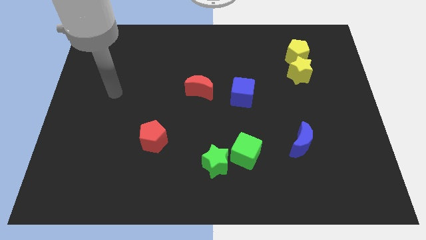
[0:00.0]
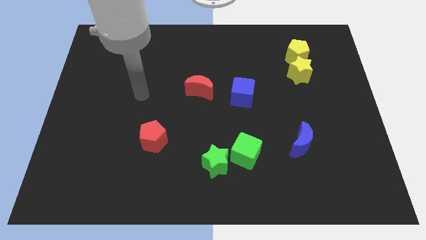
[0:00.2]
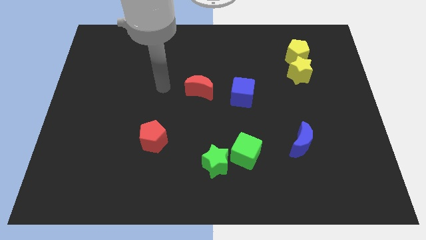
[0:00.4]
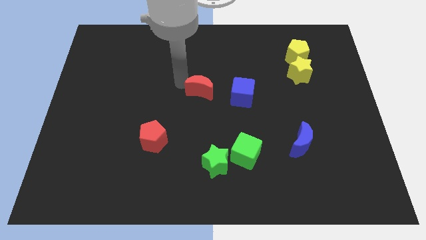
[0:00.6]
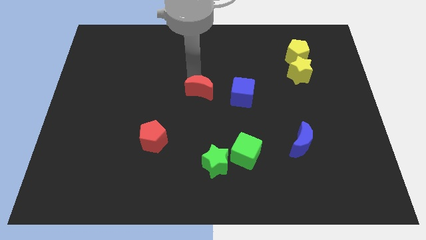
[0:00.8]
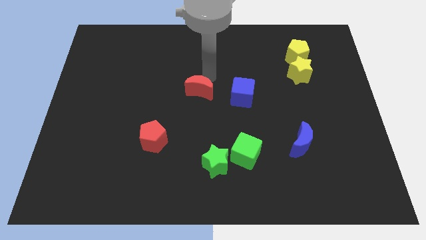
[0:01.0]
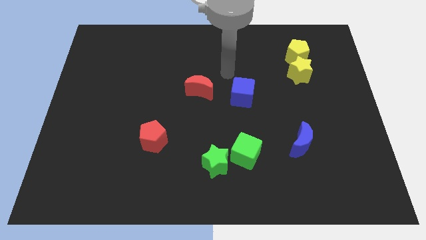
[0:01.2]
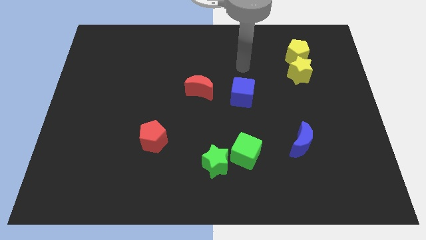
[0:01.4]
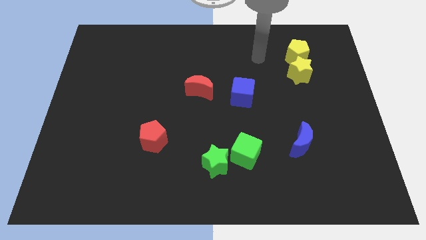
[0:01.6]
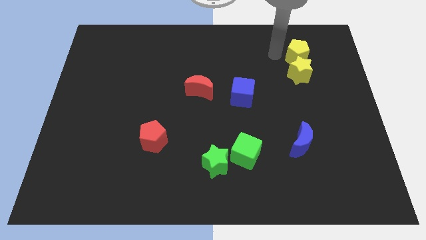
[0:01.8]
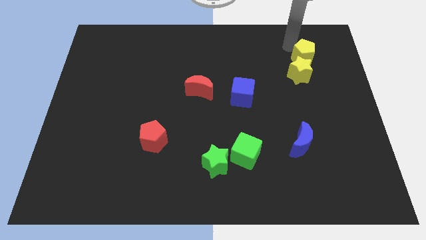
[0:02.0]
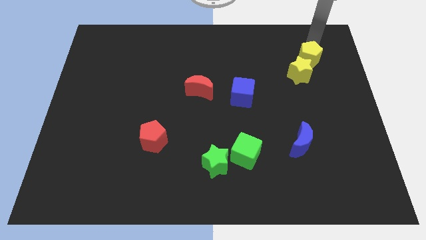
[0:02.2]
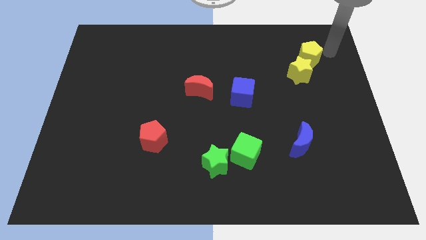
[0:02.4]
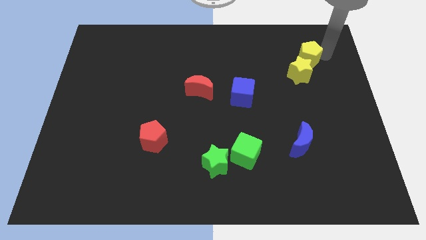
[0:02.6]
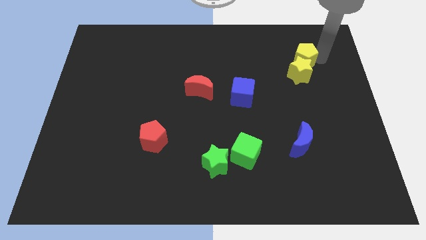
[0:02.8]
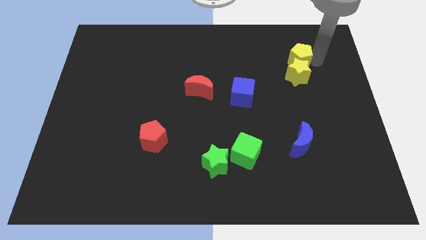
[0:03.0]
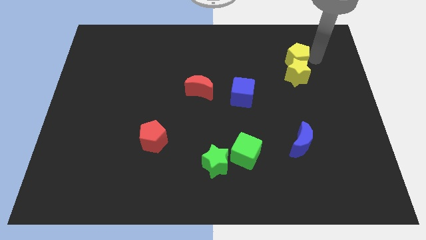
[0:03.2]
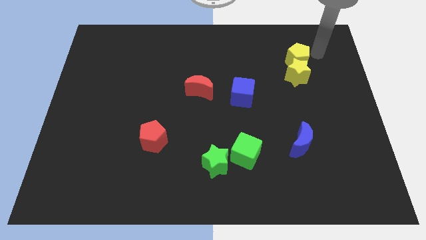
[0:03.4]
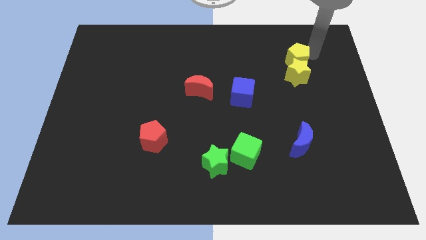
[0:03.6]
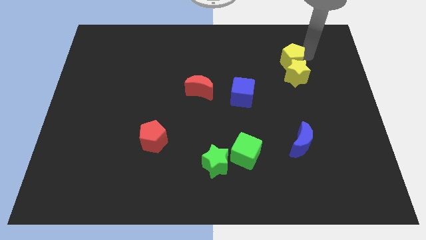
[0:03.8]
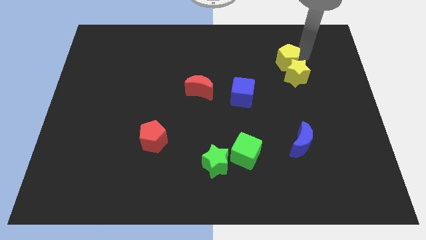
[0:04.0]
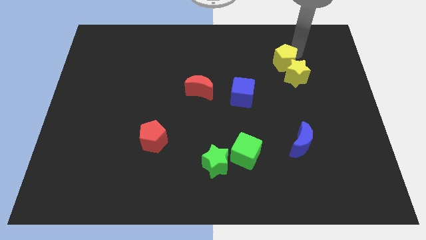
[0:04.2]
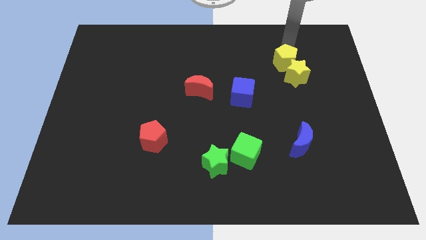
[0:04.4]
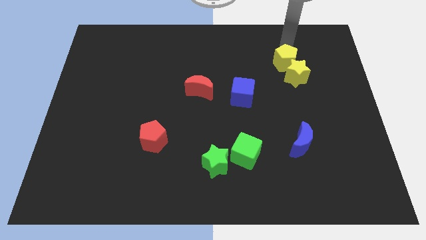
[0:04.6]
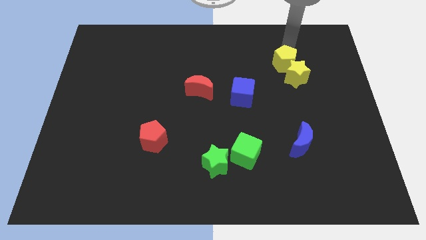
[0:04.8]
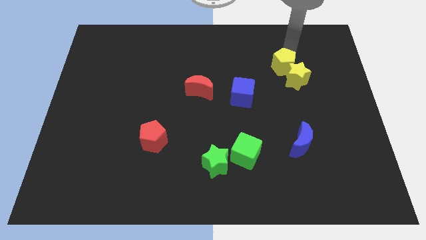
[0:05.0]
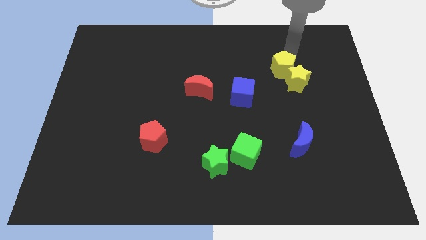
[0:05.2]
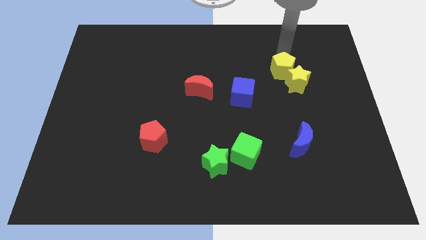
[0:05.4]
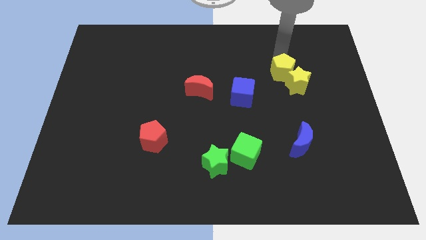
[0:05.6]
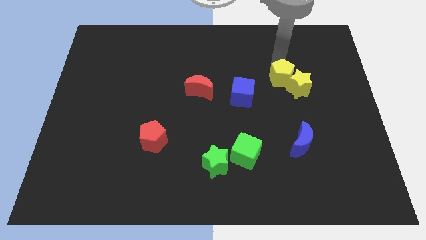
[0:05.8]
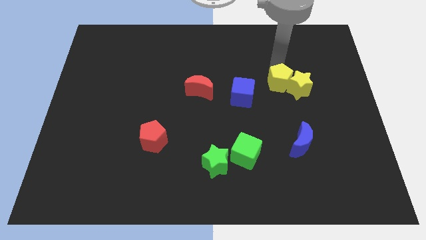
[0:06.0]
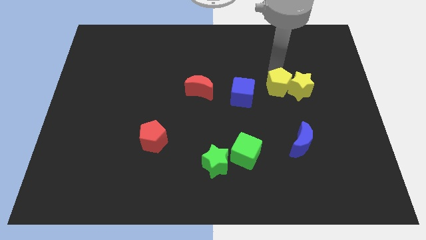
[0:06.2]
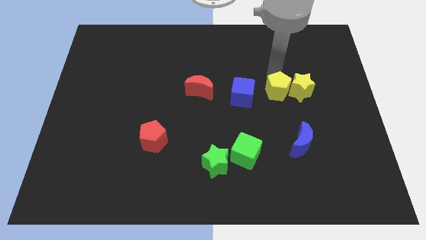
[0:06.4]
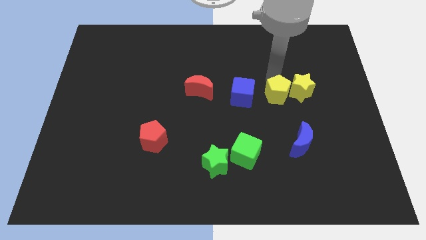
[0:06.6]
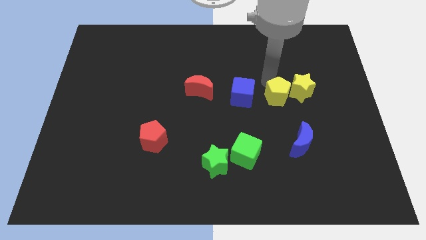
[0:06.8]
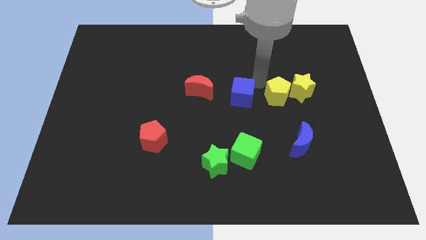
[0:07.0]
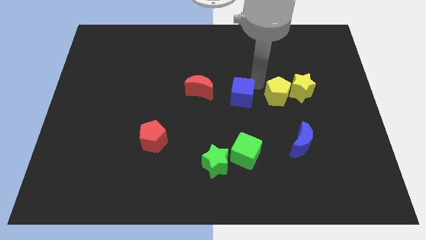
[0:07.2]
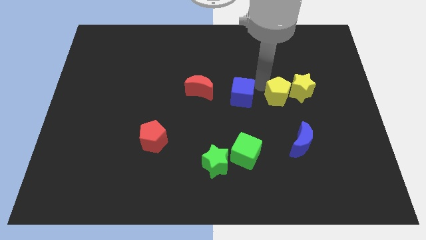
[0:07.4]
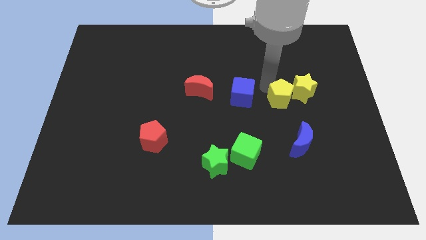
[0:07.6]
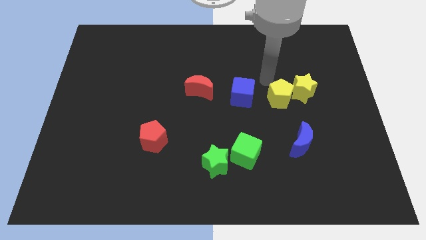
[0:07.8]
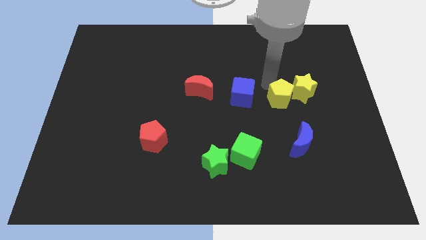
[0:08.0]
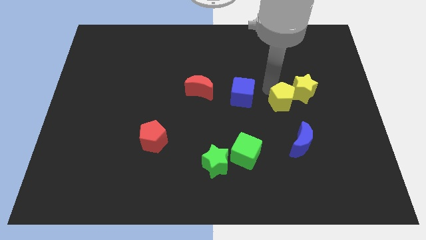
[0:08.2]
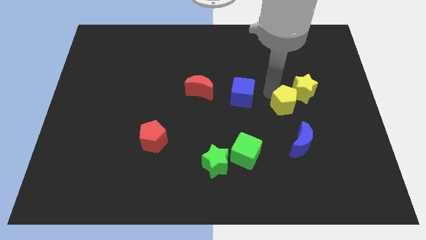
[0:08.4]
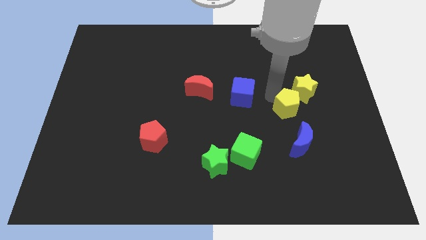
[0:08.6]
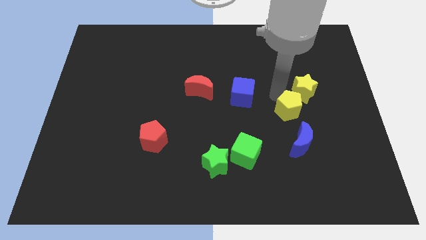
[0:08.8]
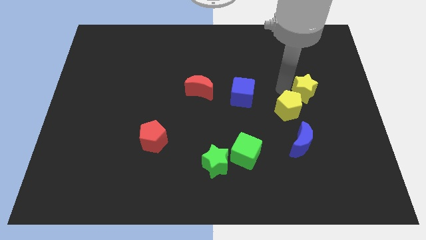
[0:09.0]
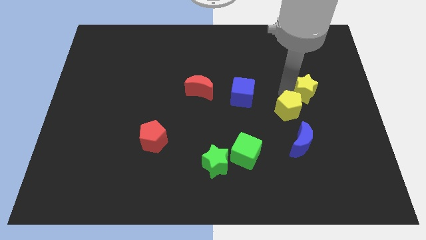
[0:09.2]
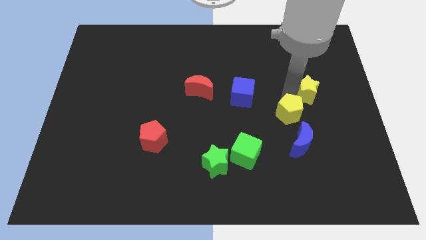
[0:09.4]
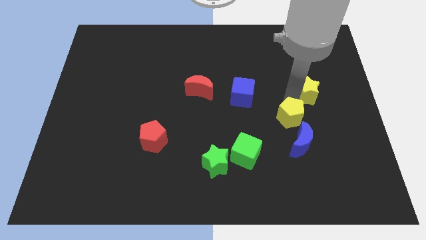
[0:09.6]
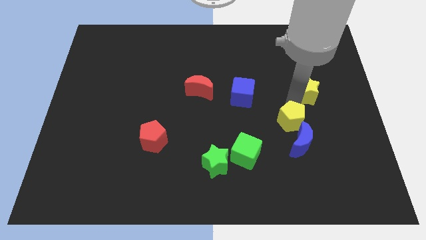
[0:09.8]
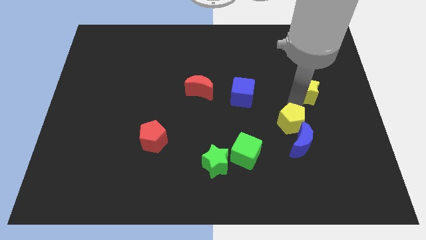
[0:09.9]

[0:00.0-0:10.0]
put the yellow pentagon close to the blue moon

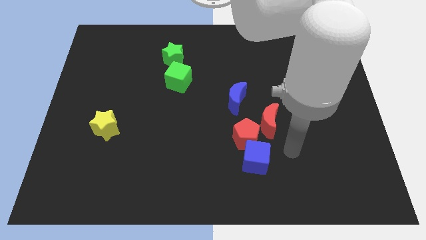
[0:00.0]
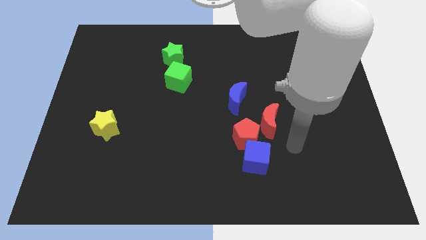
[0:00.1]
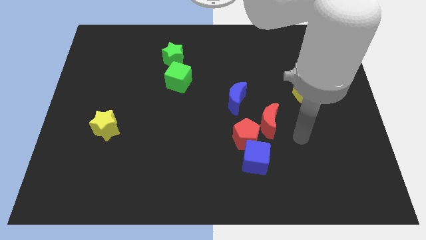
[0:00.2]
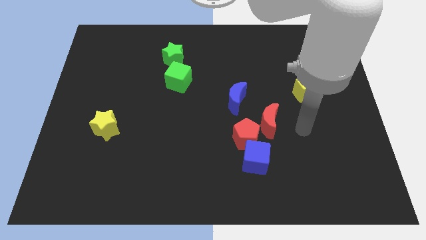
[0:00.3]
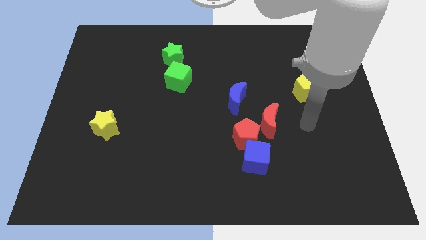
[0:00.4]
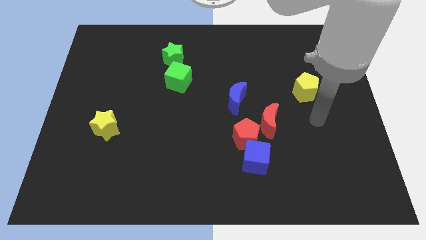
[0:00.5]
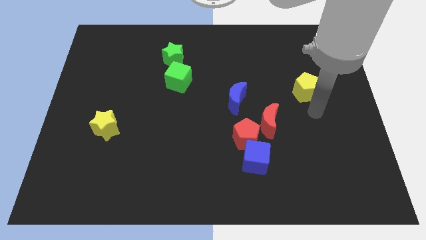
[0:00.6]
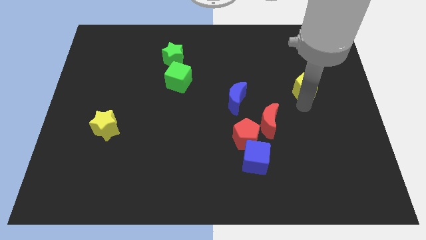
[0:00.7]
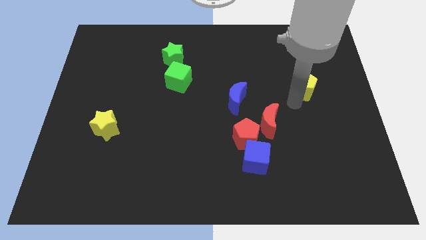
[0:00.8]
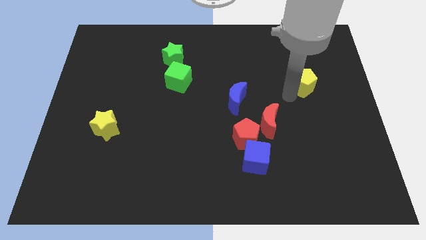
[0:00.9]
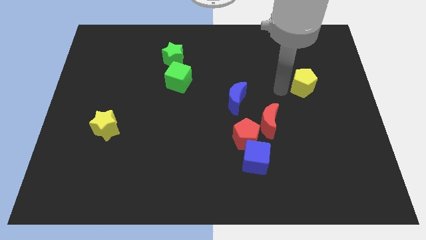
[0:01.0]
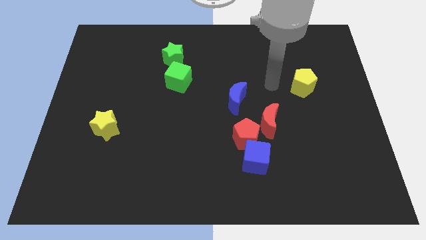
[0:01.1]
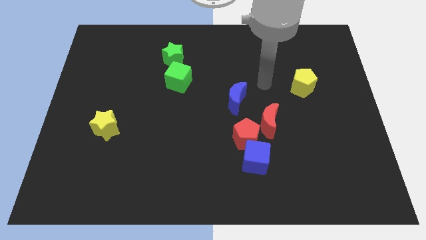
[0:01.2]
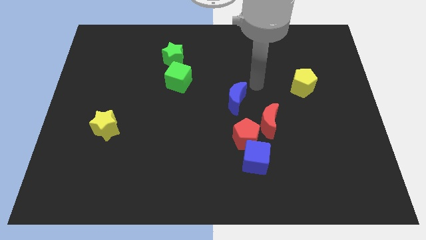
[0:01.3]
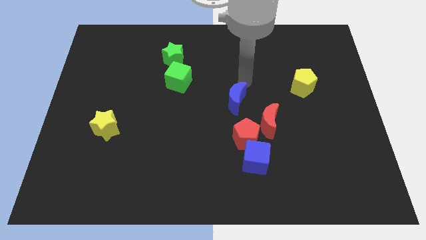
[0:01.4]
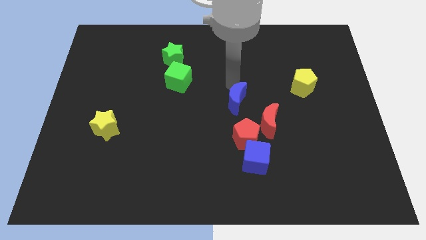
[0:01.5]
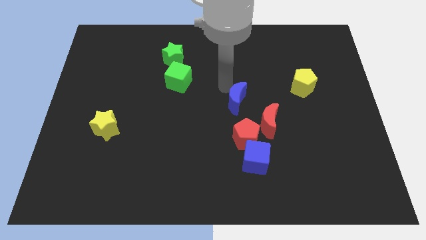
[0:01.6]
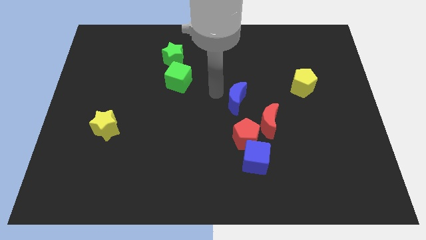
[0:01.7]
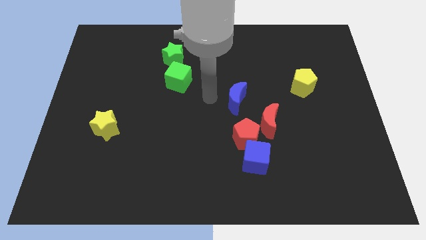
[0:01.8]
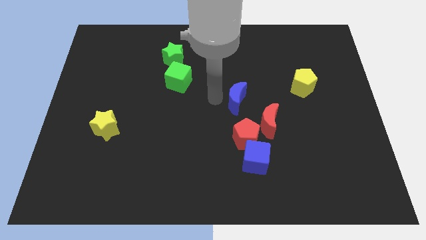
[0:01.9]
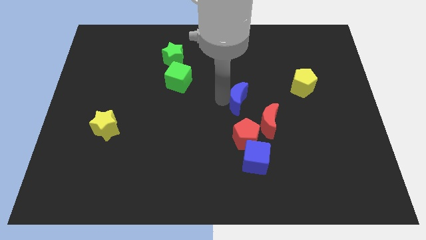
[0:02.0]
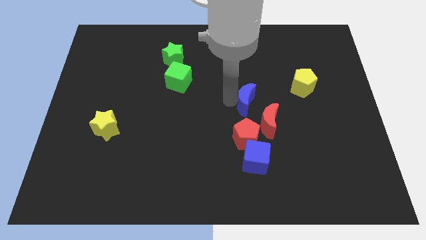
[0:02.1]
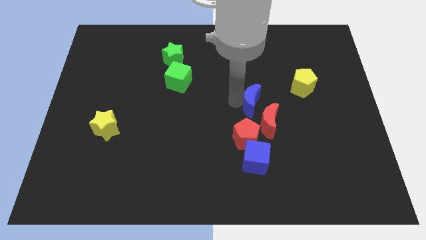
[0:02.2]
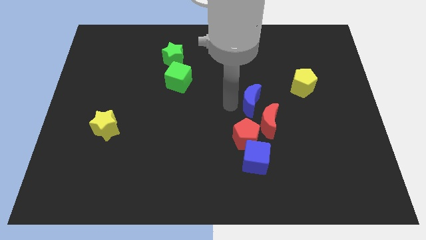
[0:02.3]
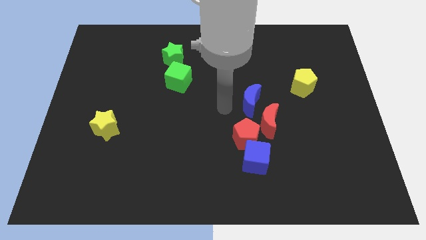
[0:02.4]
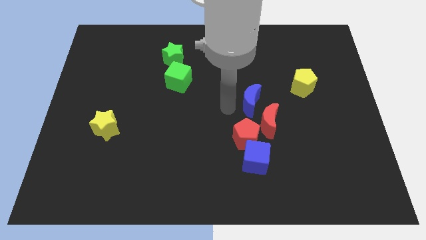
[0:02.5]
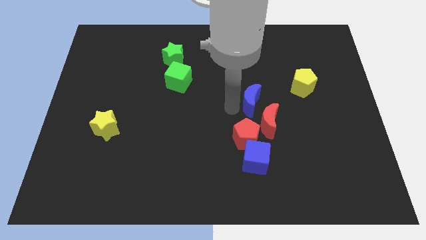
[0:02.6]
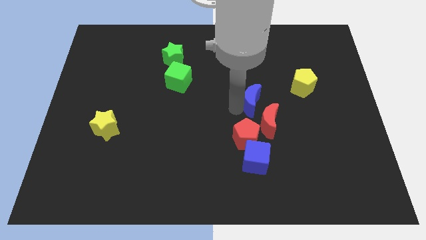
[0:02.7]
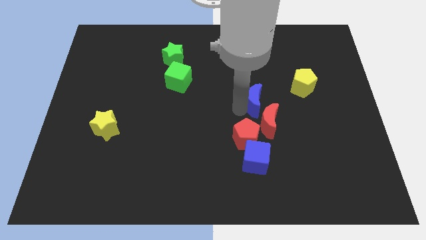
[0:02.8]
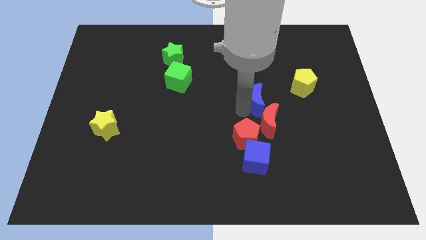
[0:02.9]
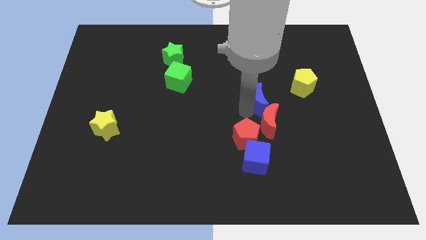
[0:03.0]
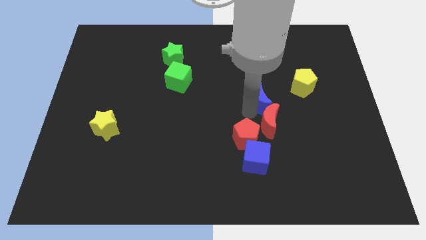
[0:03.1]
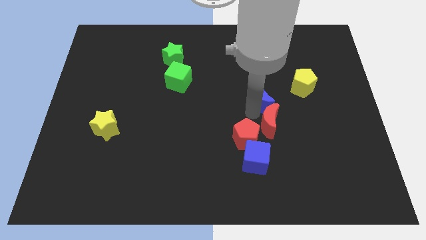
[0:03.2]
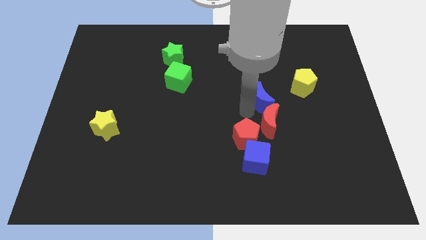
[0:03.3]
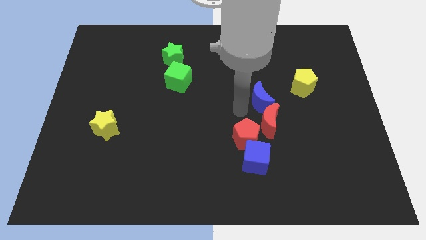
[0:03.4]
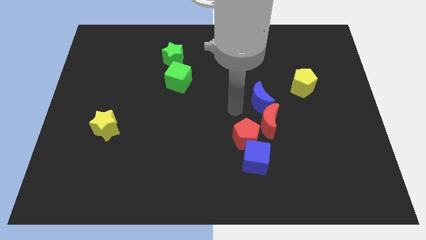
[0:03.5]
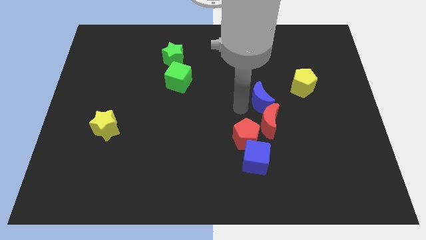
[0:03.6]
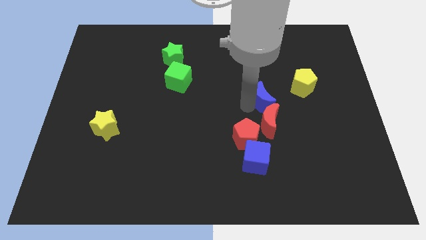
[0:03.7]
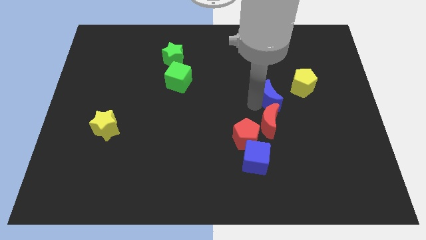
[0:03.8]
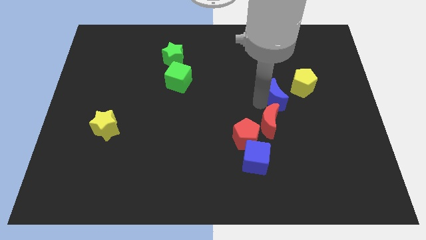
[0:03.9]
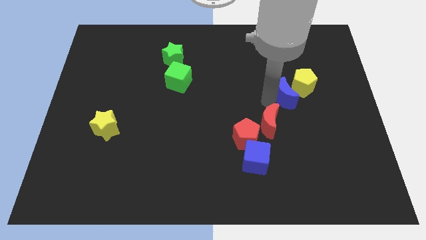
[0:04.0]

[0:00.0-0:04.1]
push the blue moon next to the yellow pentagon
